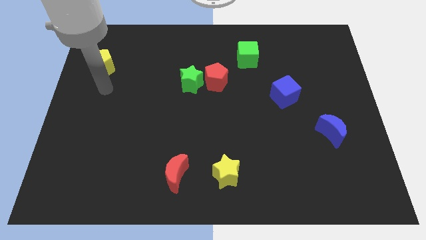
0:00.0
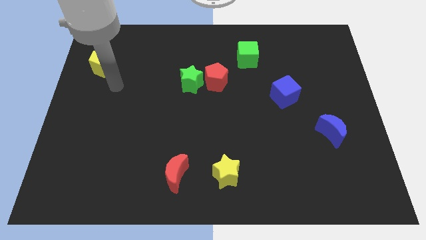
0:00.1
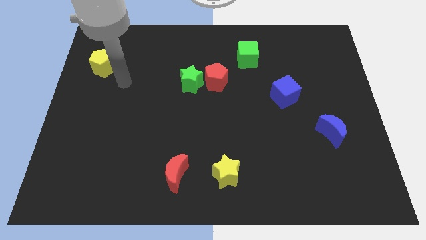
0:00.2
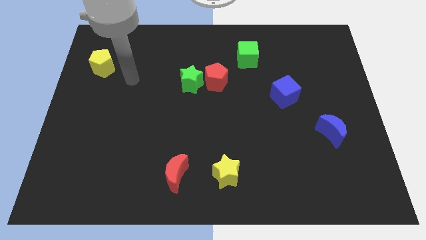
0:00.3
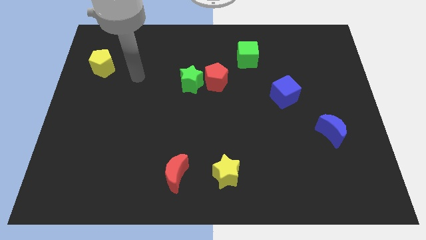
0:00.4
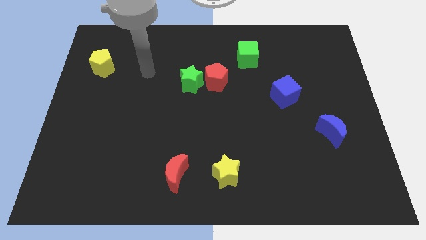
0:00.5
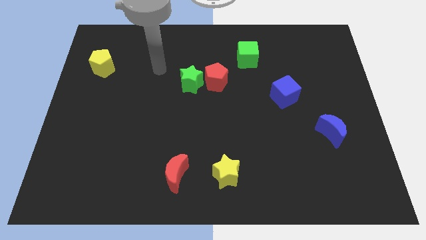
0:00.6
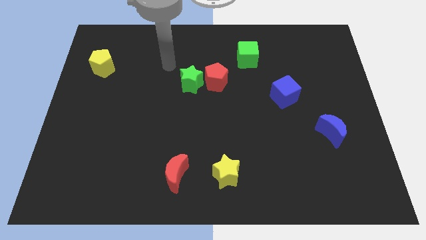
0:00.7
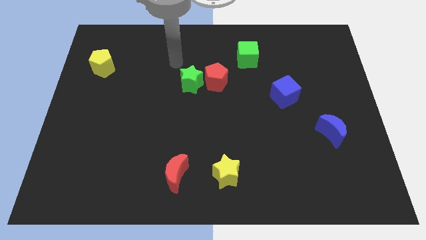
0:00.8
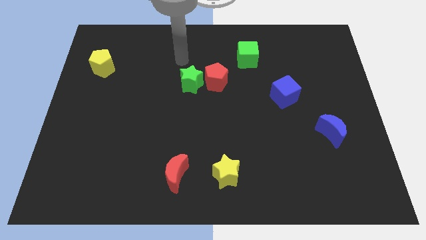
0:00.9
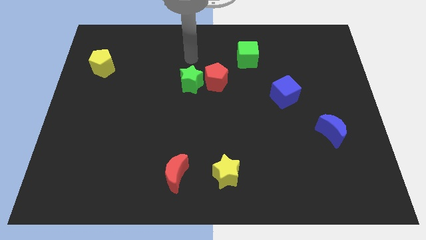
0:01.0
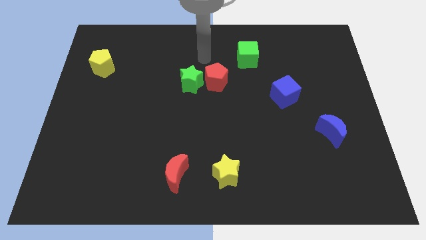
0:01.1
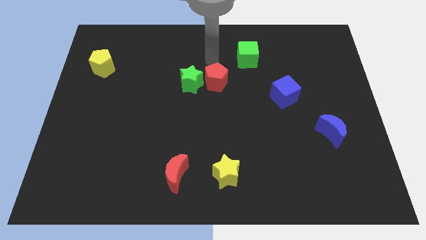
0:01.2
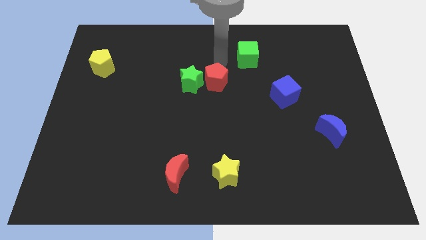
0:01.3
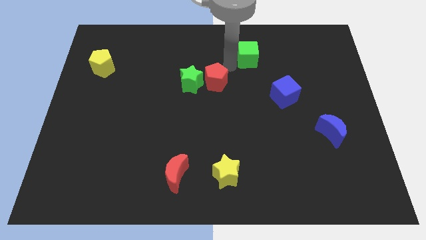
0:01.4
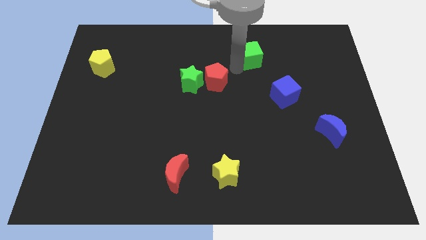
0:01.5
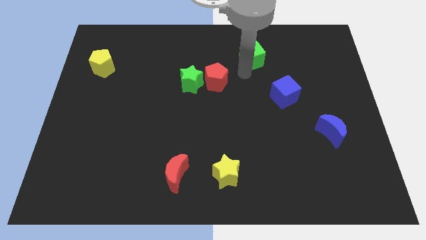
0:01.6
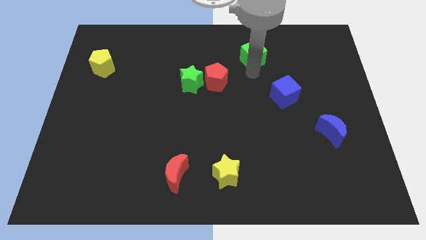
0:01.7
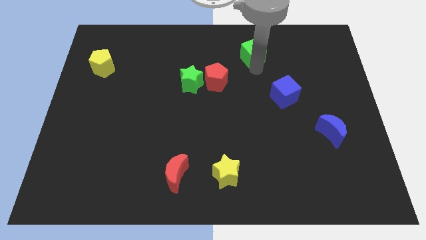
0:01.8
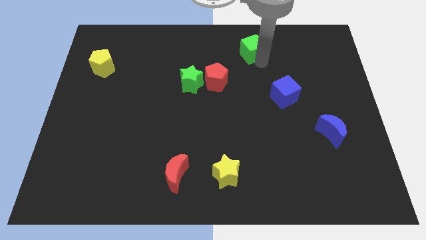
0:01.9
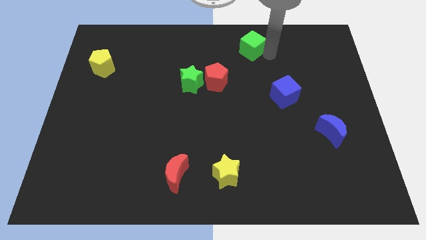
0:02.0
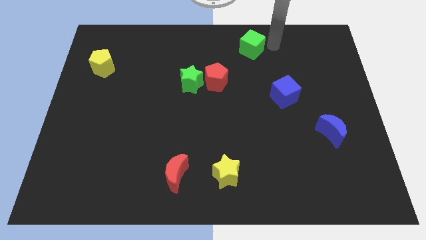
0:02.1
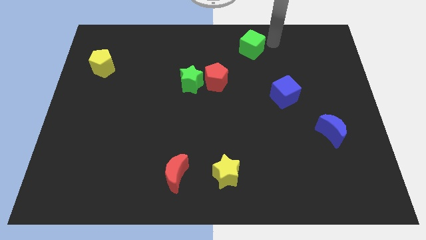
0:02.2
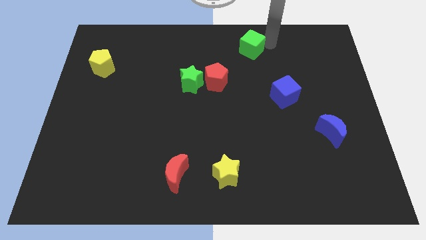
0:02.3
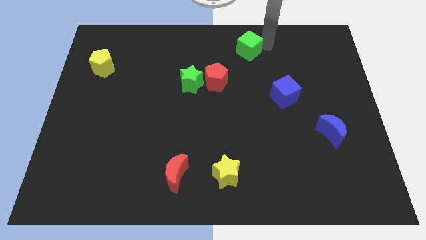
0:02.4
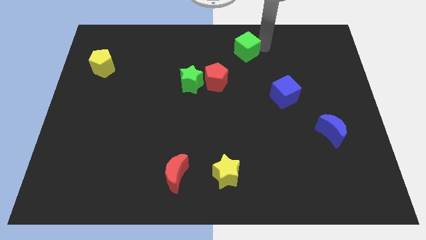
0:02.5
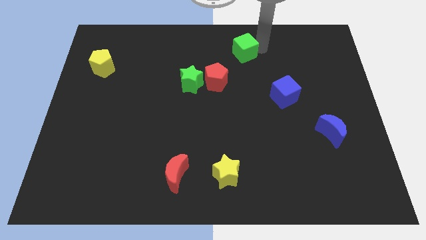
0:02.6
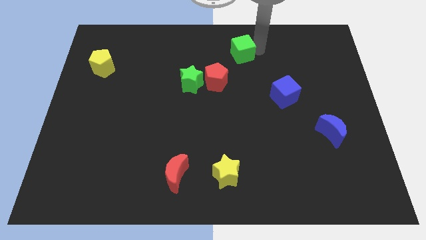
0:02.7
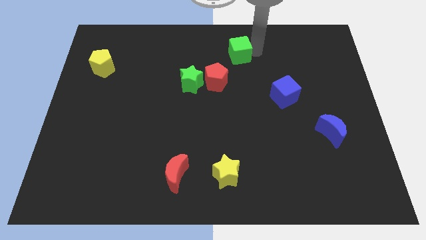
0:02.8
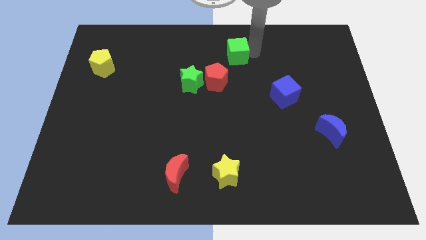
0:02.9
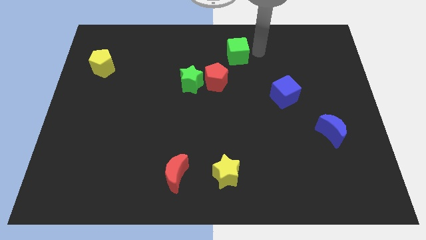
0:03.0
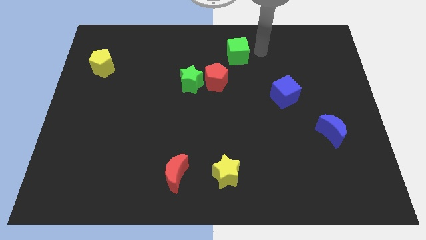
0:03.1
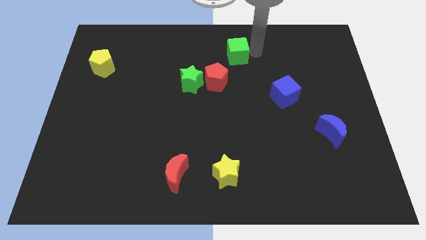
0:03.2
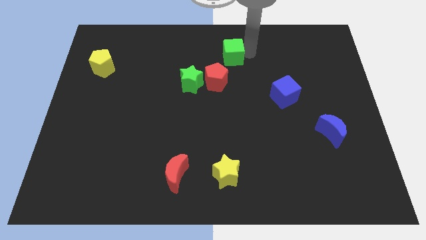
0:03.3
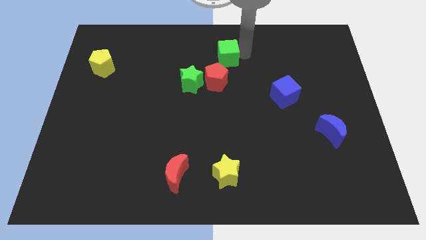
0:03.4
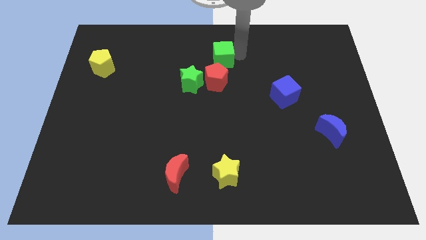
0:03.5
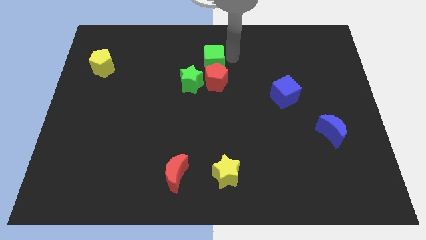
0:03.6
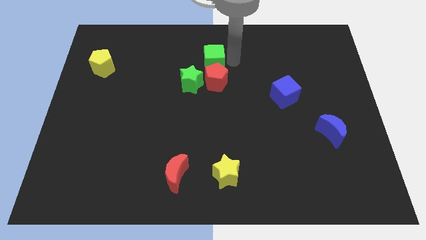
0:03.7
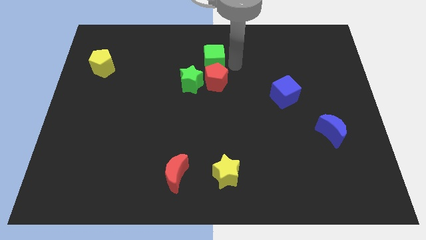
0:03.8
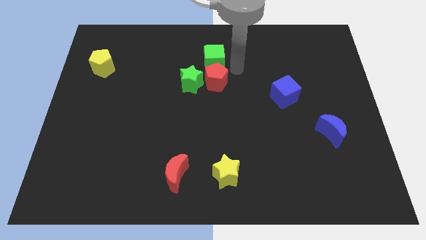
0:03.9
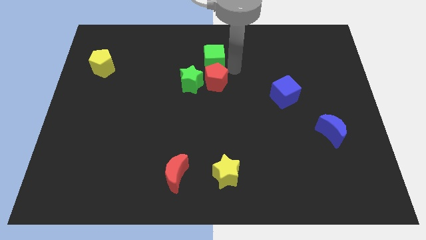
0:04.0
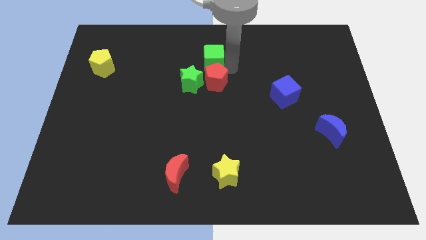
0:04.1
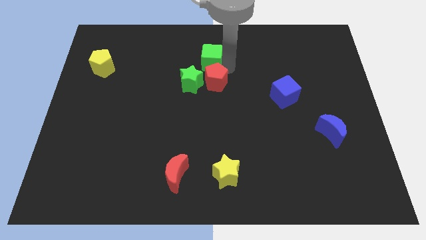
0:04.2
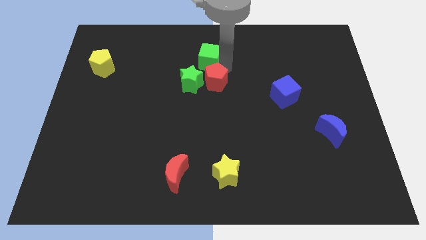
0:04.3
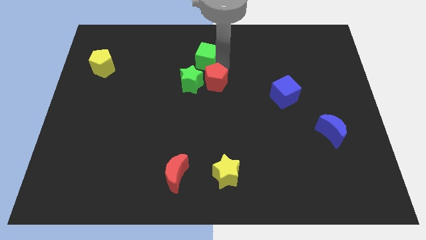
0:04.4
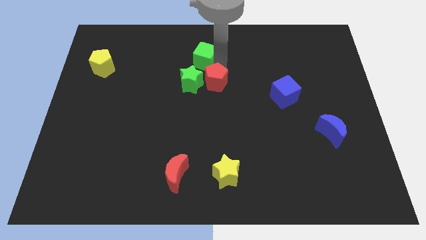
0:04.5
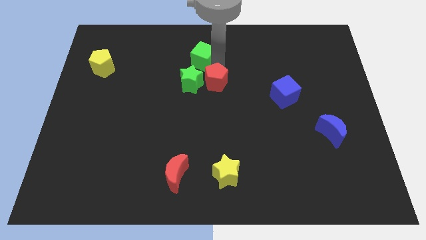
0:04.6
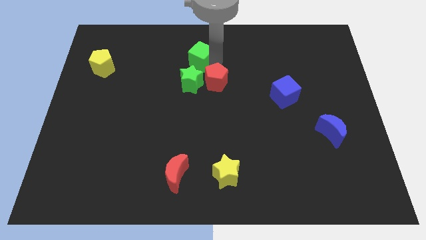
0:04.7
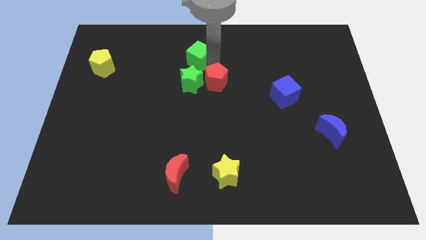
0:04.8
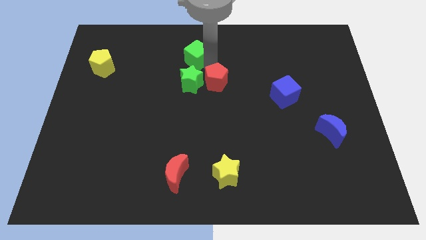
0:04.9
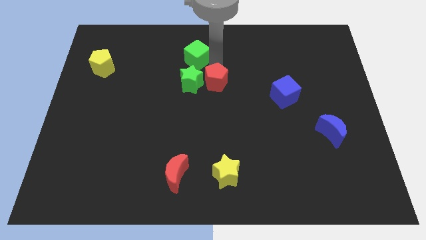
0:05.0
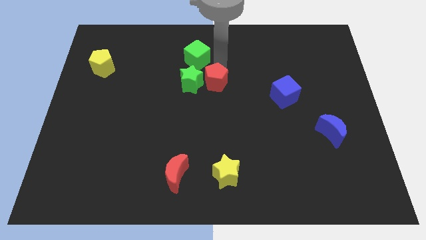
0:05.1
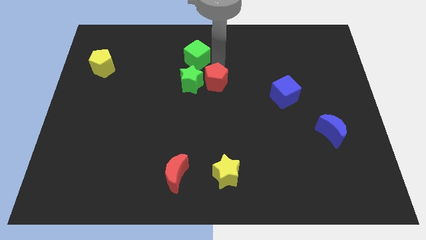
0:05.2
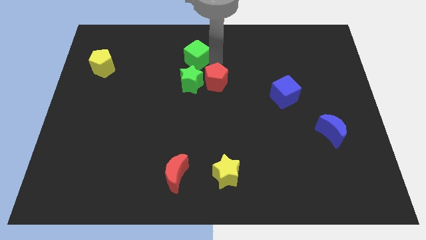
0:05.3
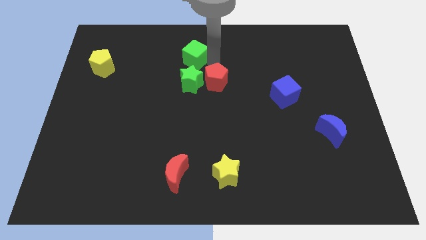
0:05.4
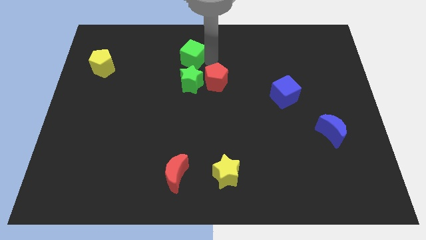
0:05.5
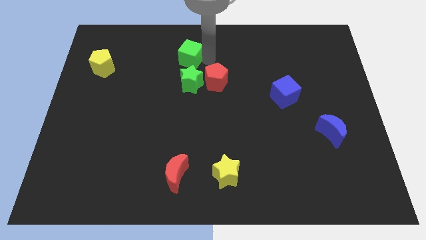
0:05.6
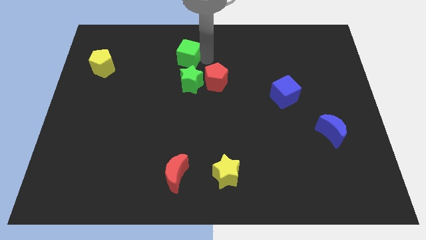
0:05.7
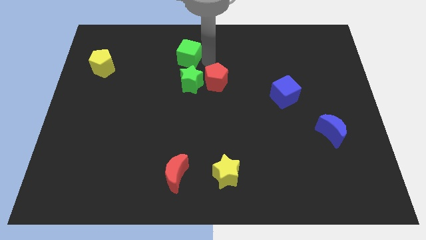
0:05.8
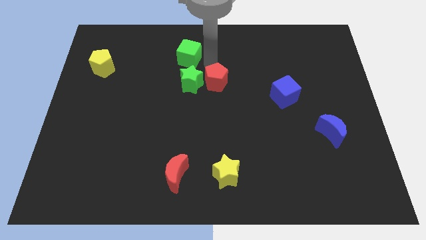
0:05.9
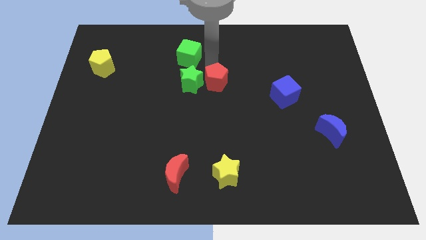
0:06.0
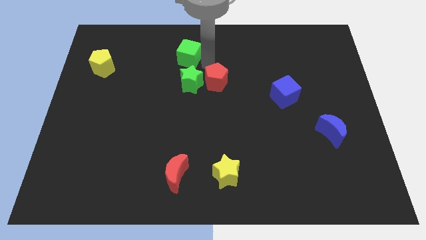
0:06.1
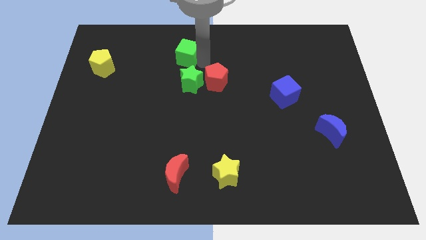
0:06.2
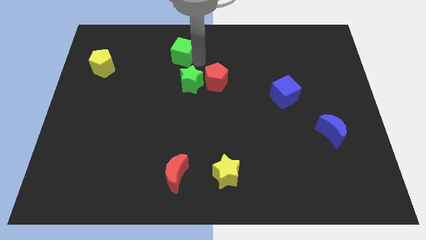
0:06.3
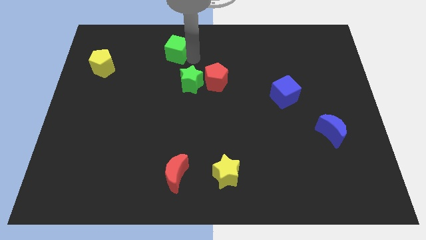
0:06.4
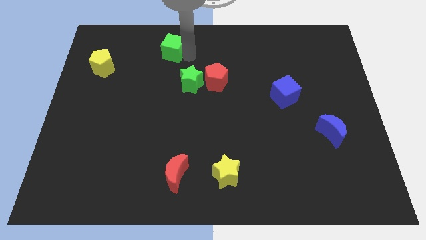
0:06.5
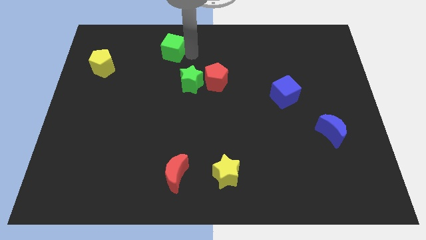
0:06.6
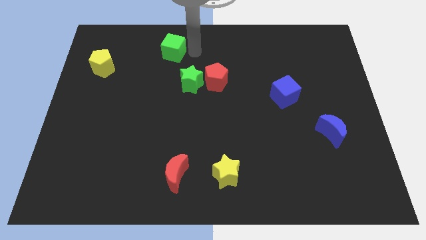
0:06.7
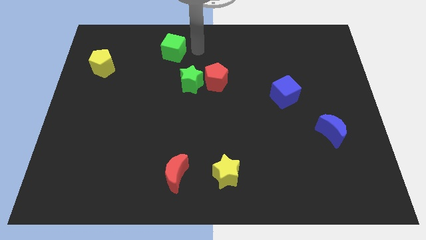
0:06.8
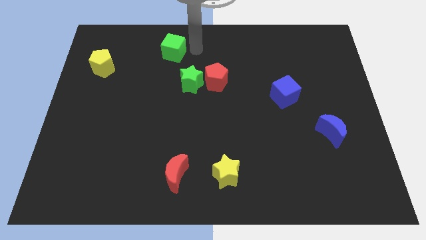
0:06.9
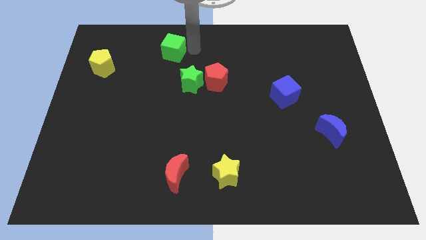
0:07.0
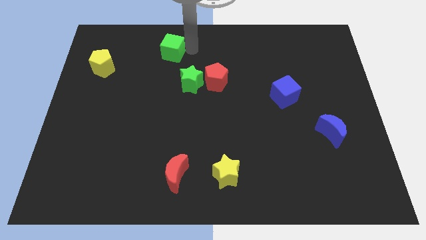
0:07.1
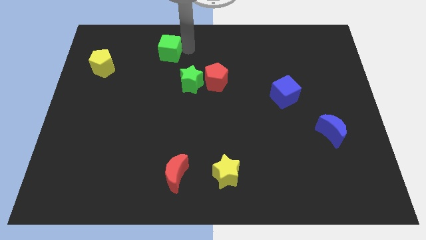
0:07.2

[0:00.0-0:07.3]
push the green cube left

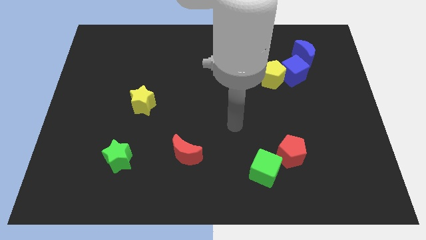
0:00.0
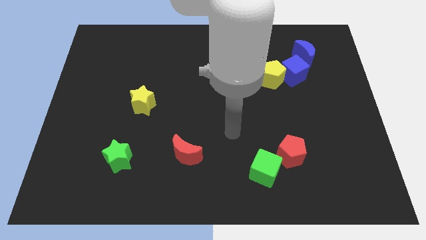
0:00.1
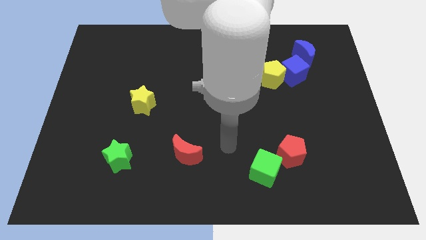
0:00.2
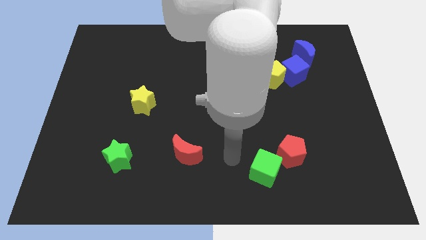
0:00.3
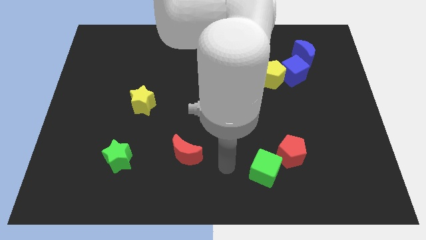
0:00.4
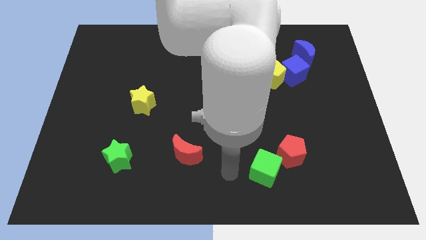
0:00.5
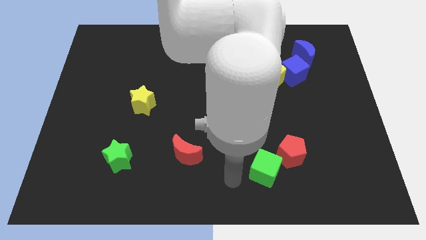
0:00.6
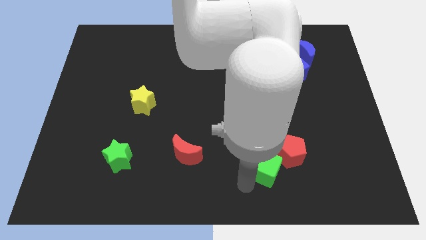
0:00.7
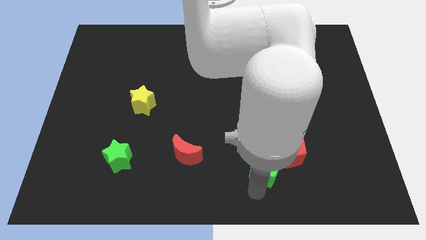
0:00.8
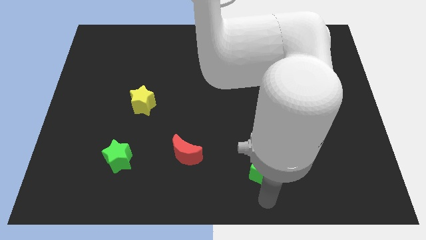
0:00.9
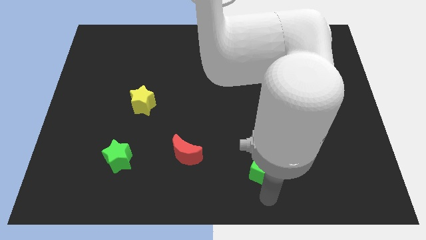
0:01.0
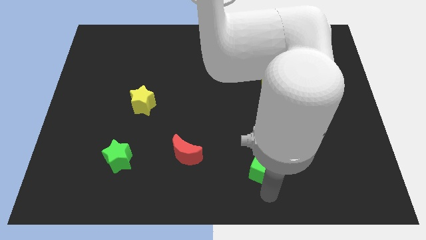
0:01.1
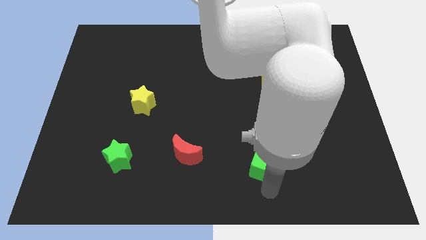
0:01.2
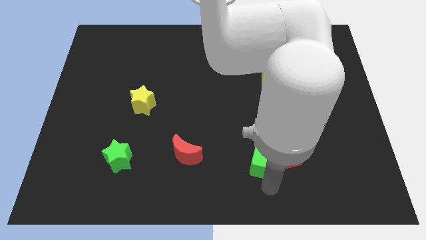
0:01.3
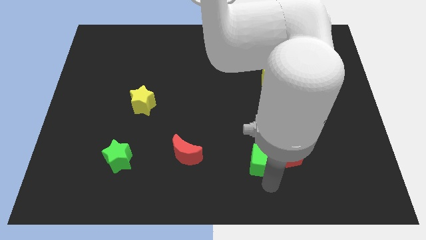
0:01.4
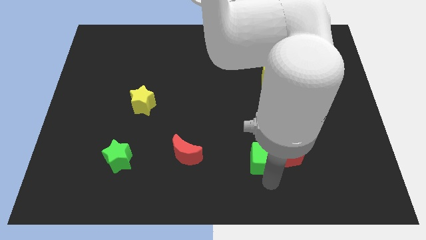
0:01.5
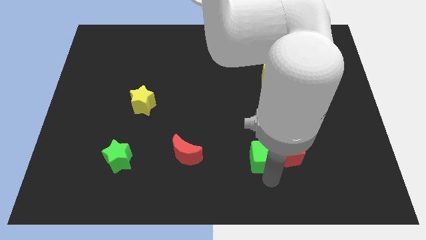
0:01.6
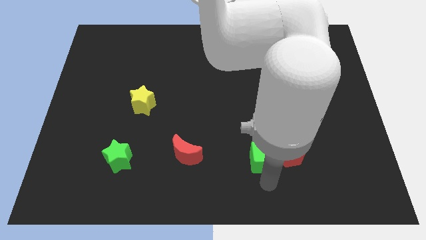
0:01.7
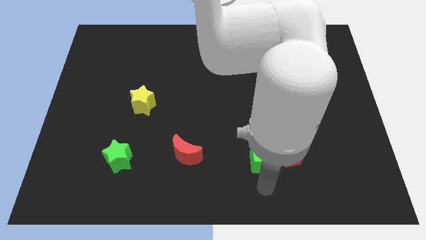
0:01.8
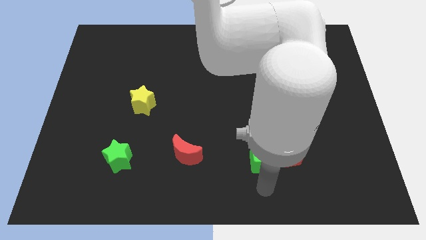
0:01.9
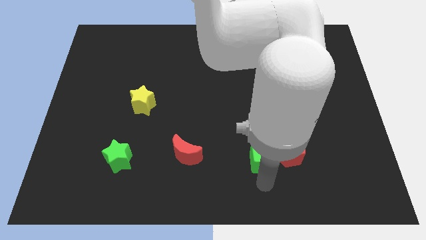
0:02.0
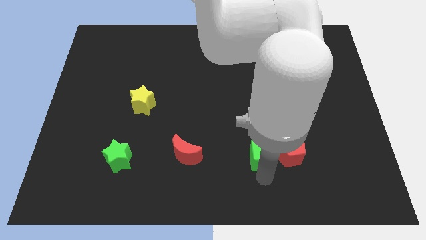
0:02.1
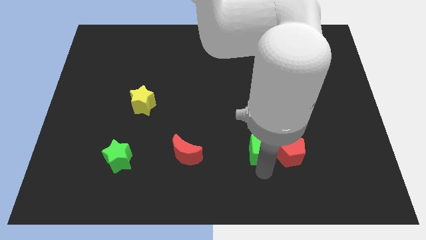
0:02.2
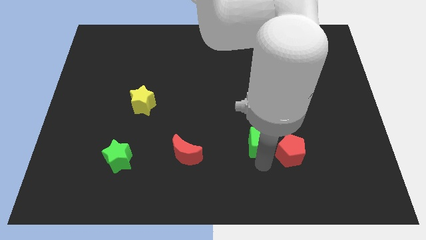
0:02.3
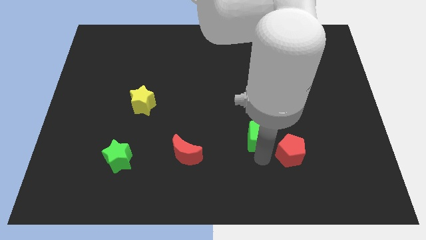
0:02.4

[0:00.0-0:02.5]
slightly move the green cube upwards
